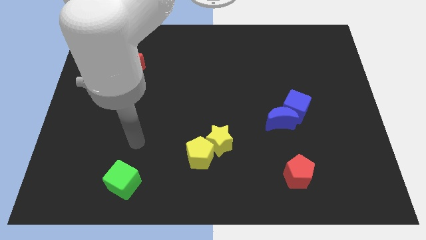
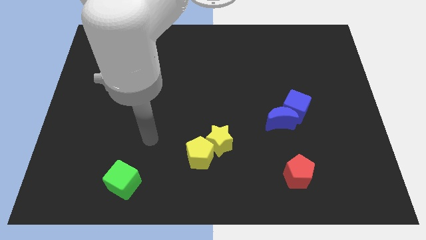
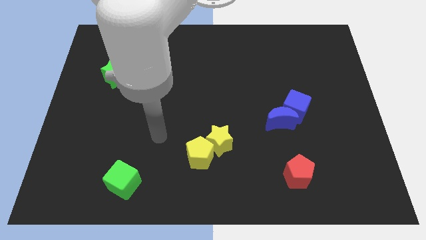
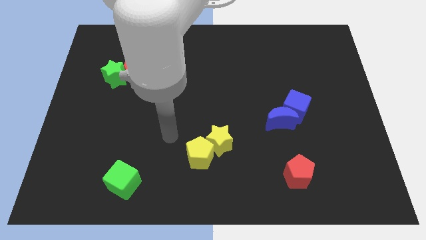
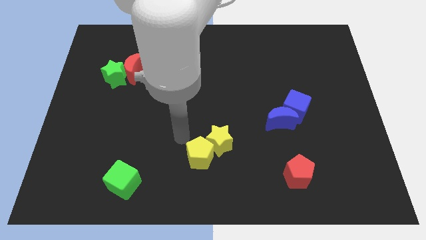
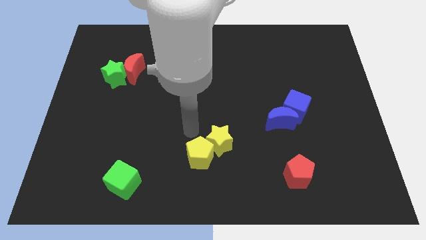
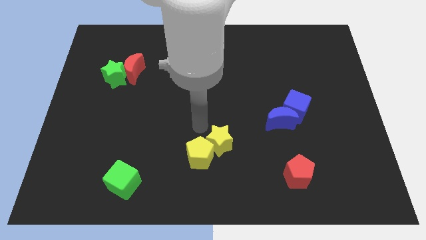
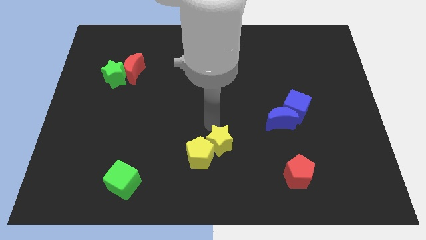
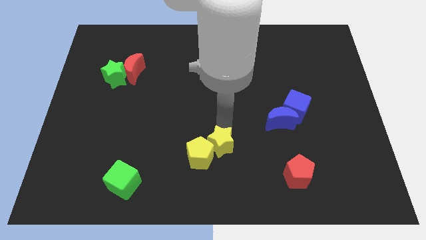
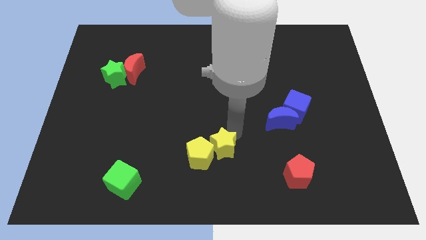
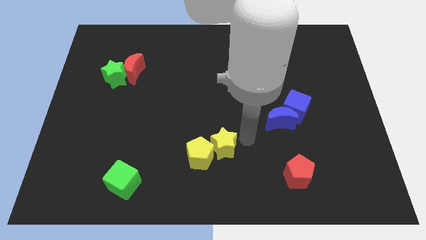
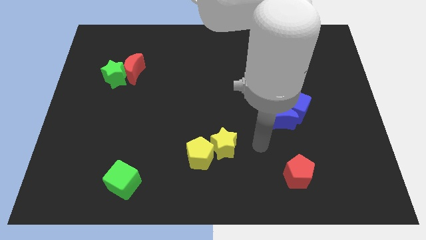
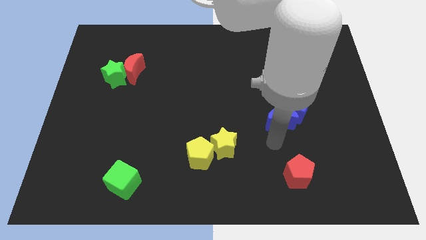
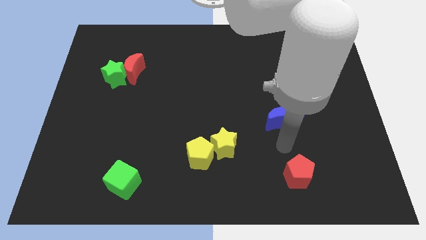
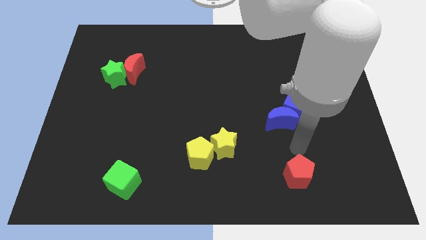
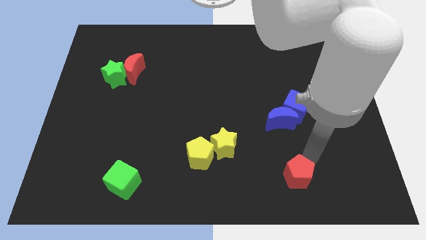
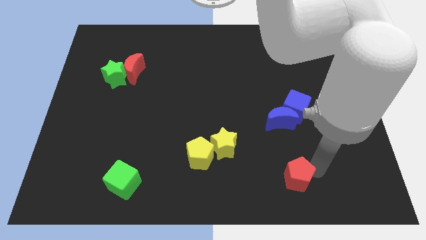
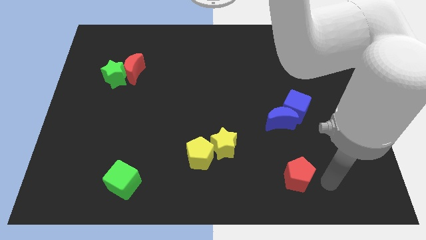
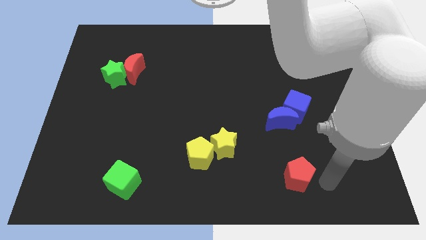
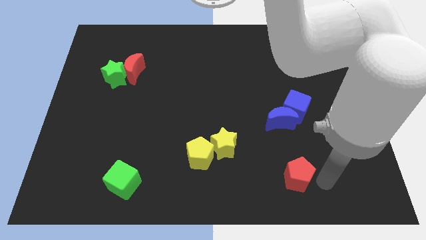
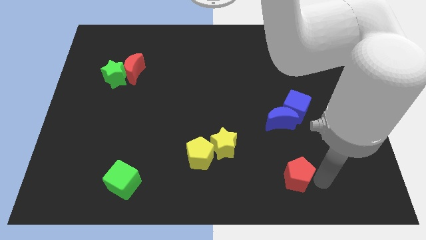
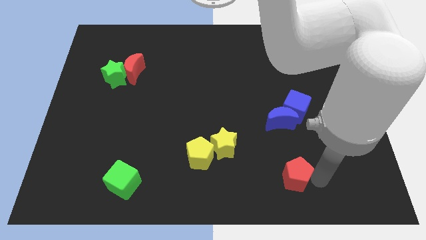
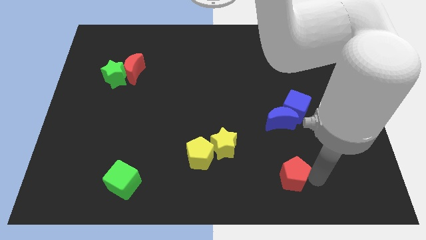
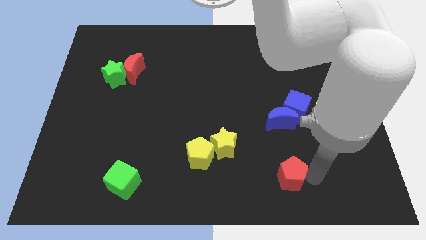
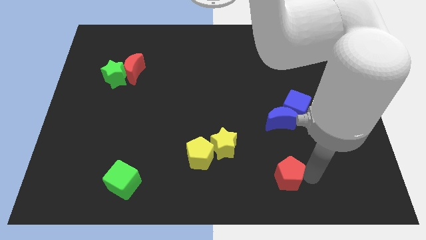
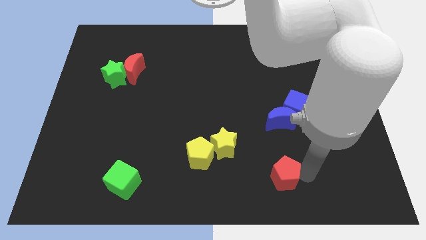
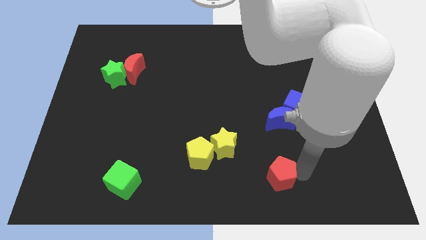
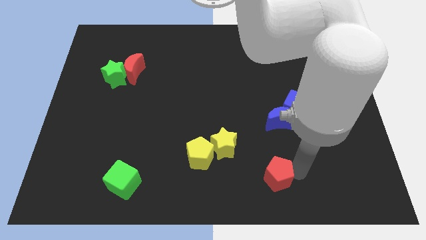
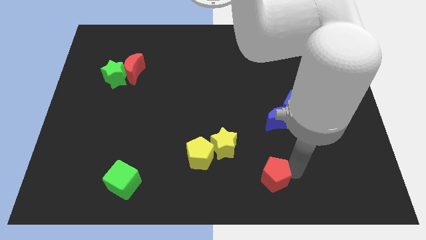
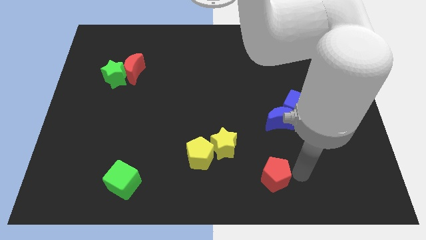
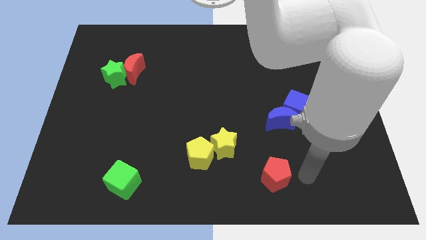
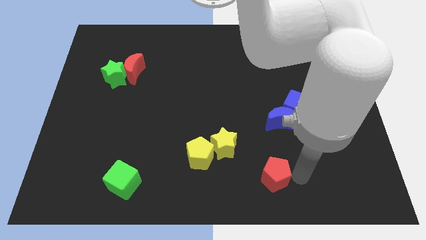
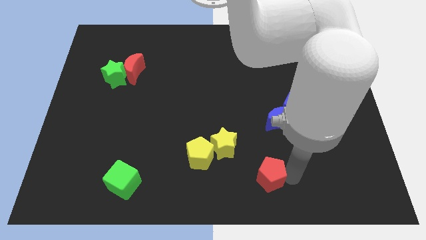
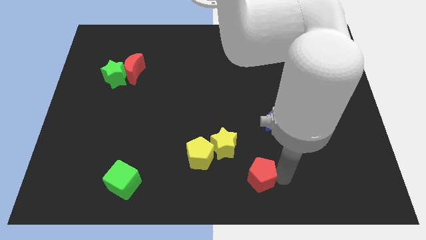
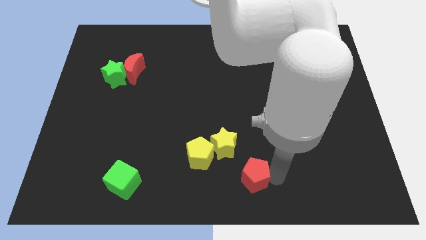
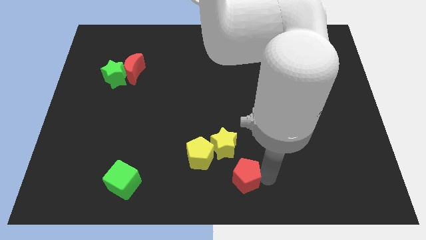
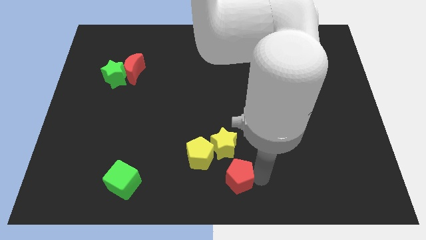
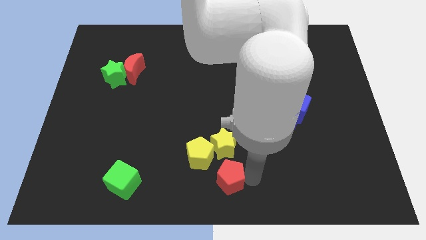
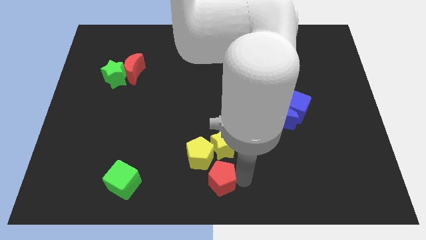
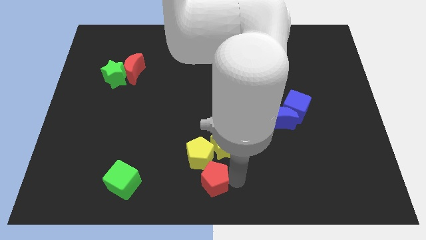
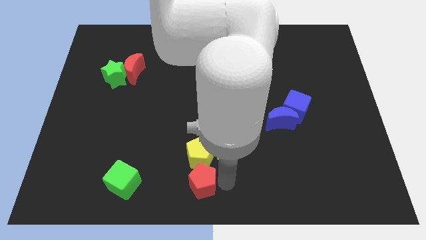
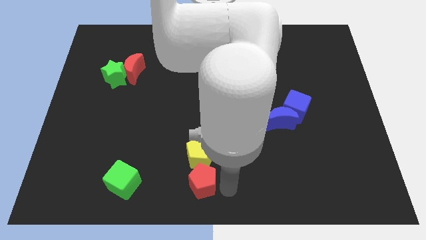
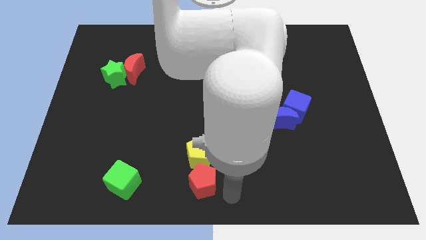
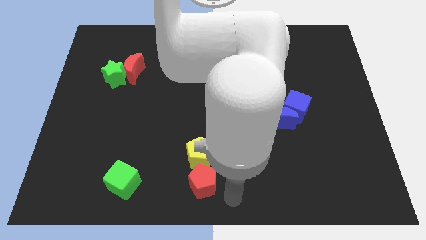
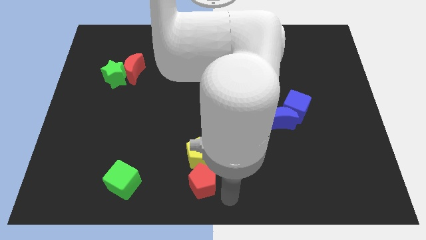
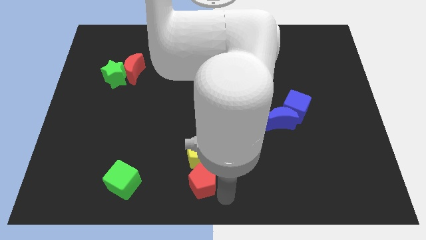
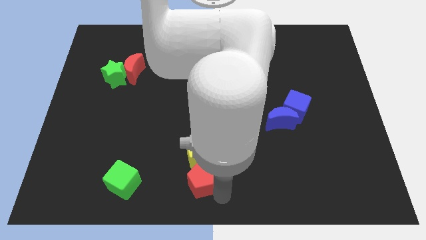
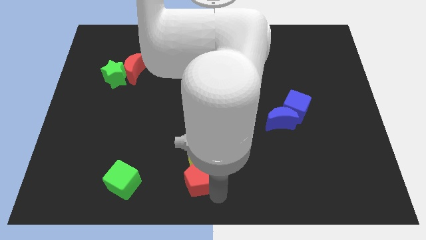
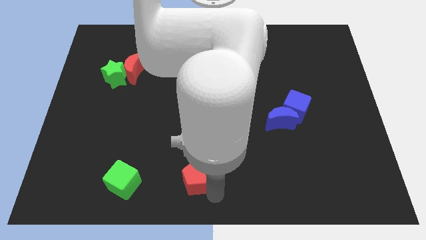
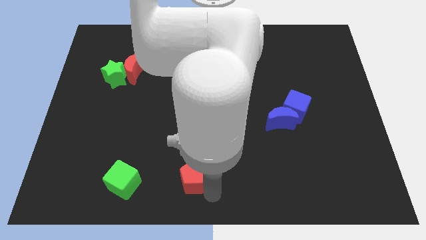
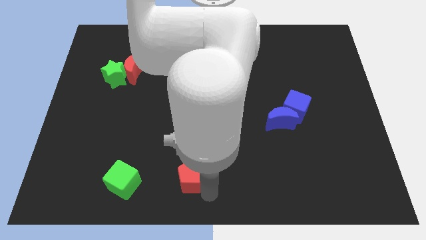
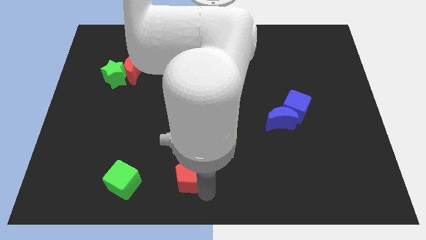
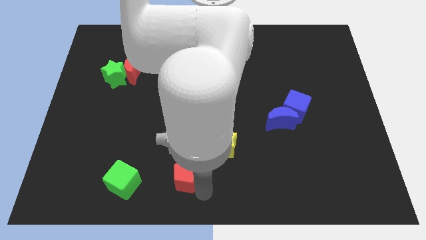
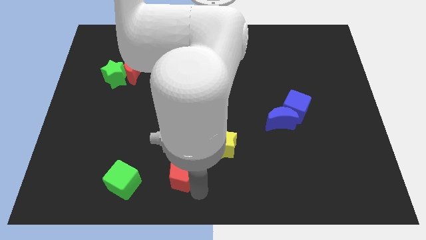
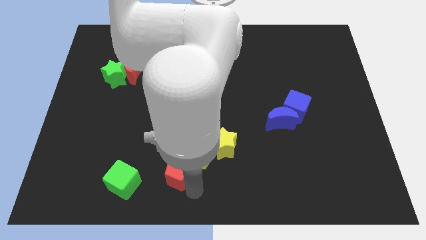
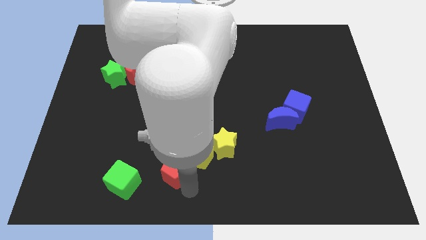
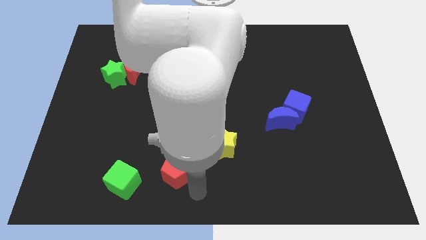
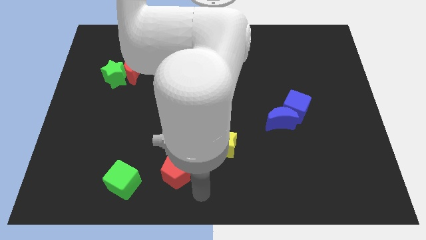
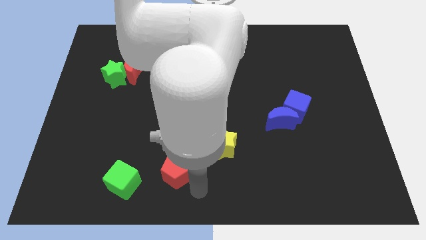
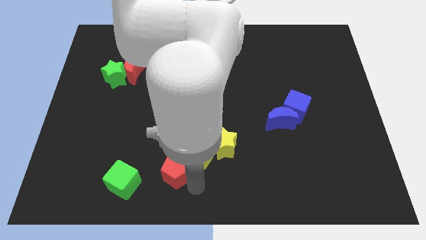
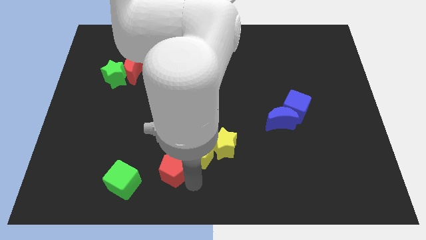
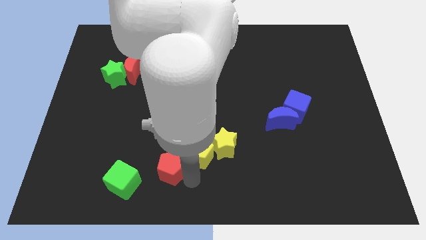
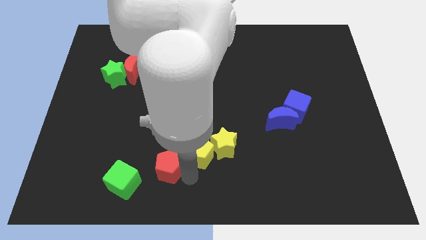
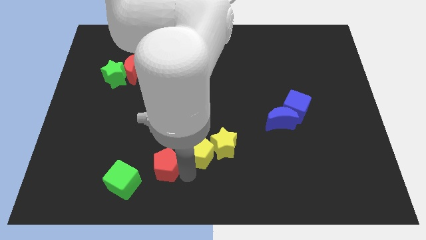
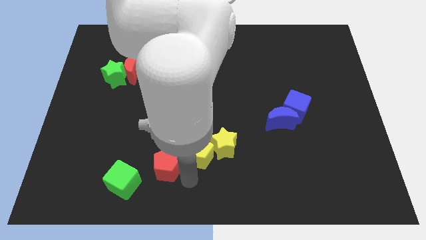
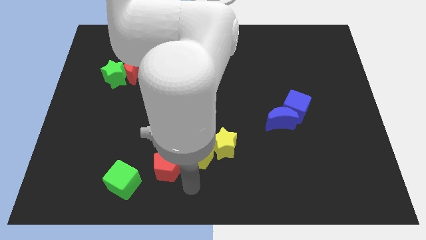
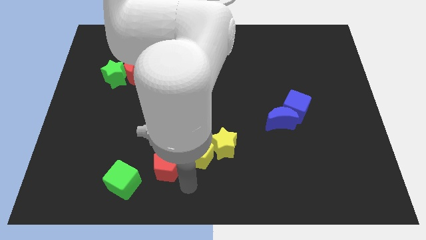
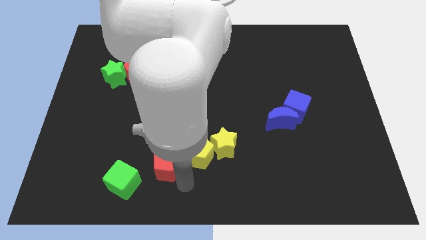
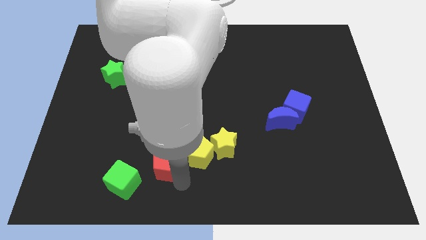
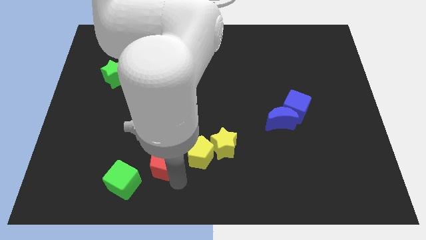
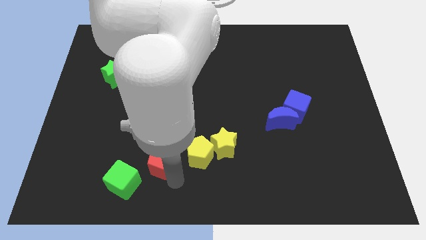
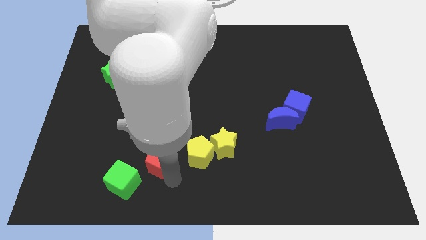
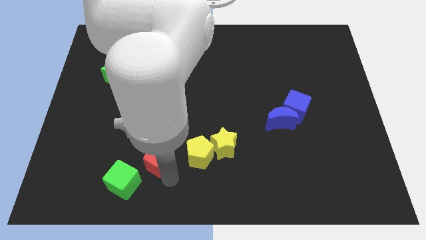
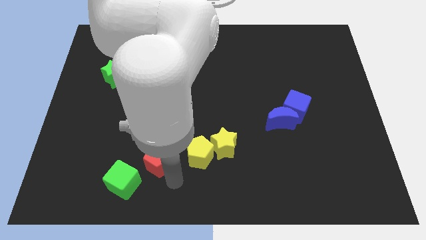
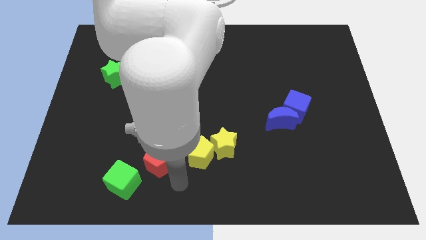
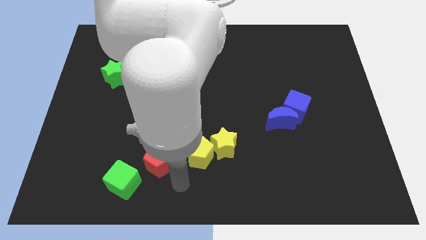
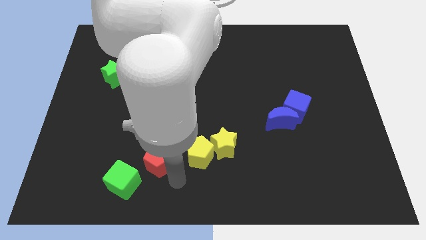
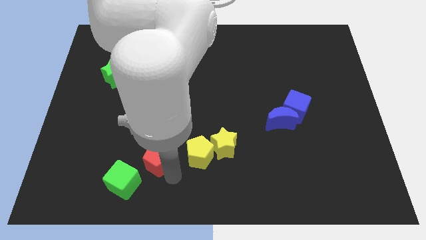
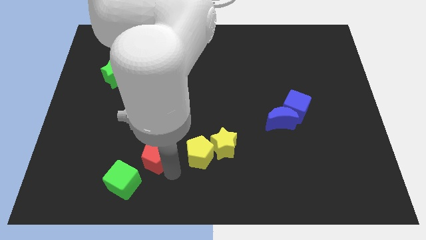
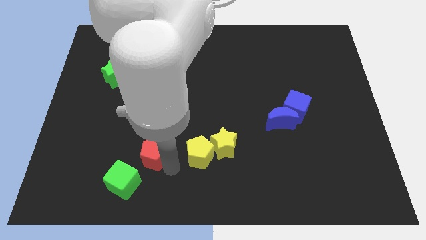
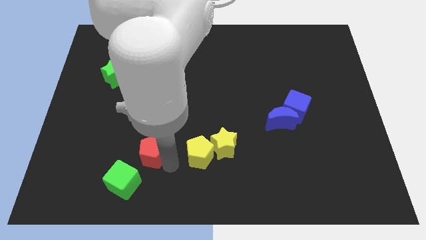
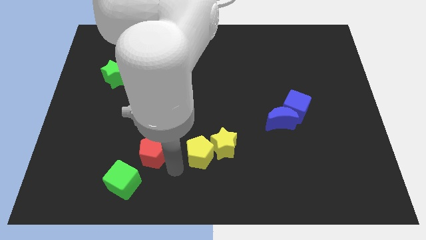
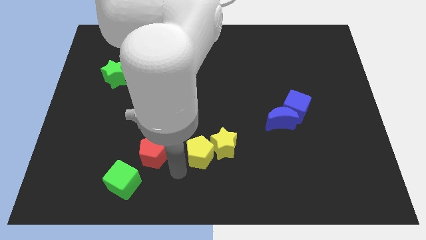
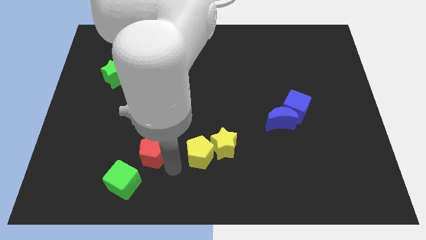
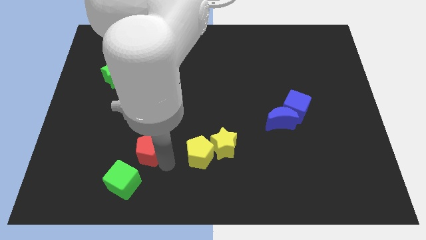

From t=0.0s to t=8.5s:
push the red pentagon to the top of the green cube
